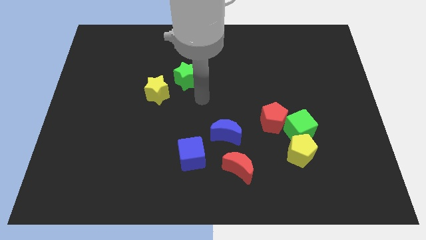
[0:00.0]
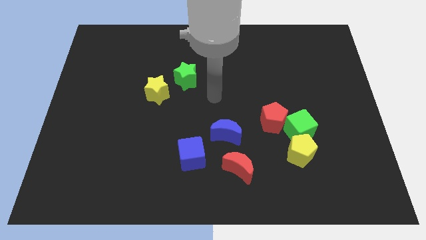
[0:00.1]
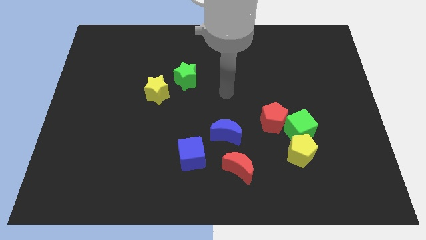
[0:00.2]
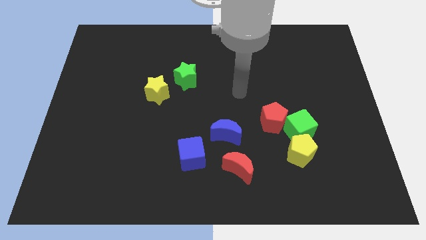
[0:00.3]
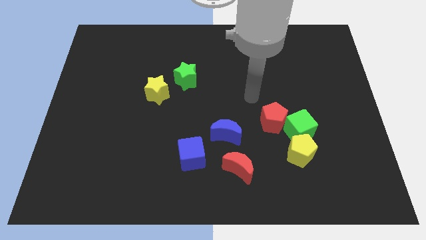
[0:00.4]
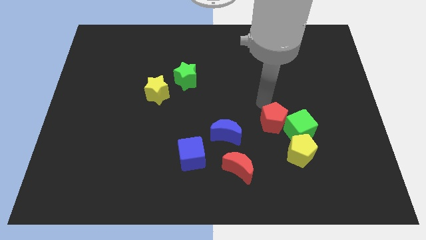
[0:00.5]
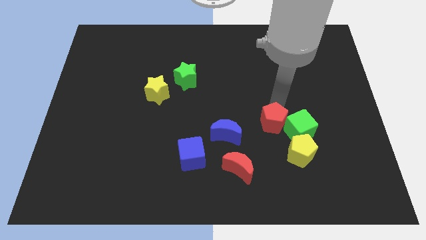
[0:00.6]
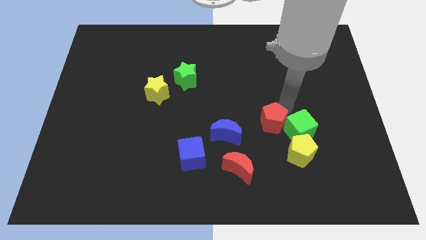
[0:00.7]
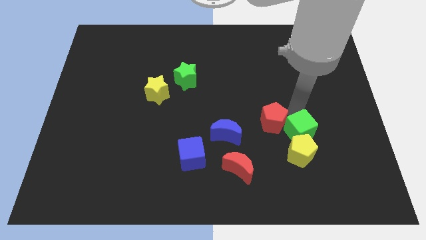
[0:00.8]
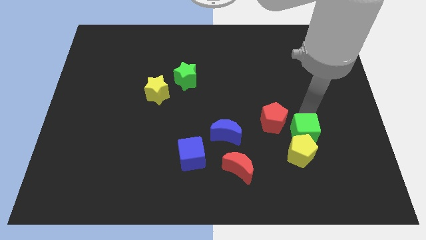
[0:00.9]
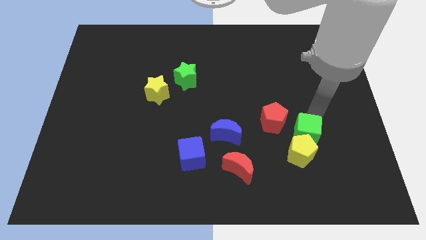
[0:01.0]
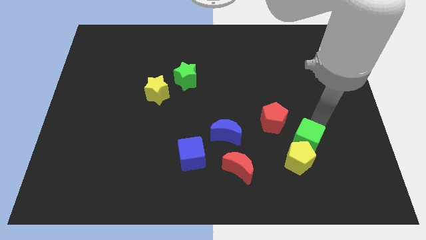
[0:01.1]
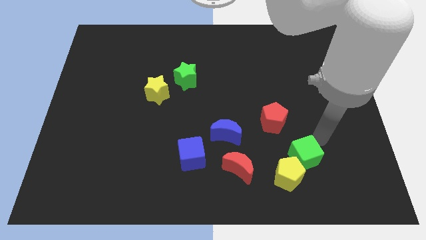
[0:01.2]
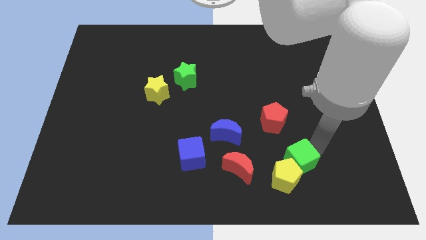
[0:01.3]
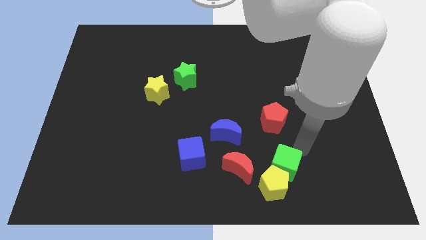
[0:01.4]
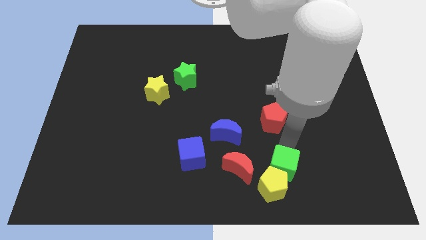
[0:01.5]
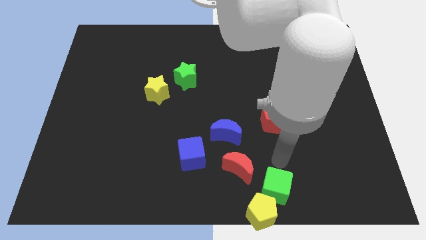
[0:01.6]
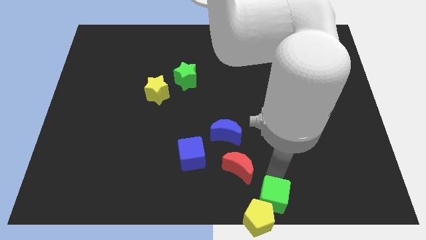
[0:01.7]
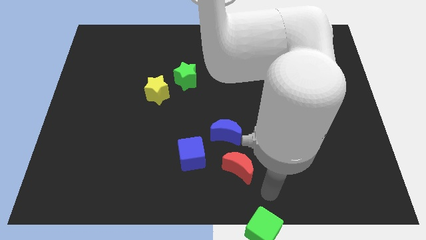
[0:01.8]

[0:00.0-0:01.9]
move the green cube away from the red pentagon and yellow pentagon

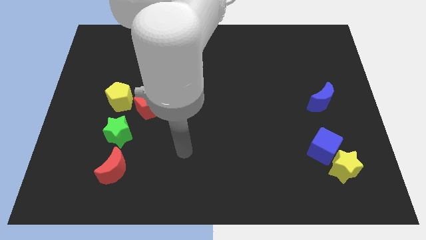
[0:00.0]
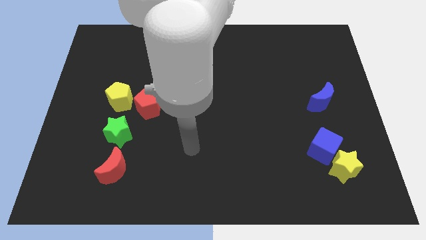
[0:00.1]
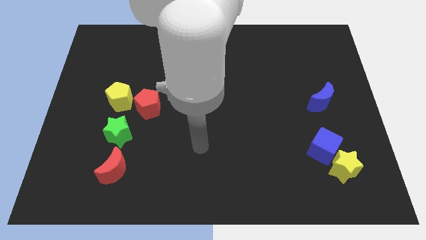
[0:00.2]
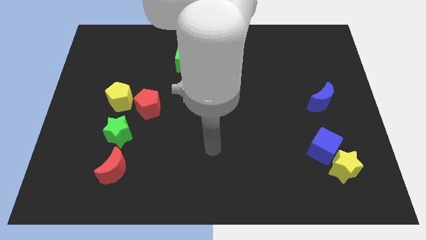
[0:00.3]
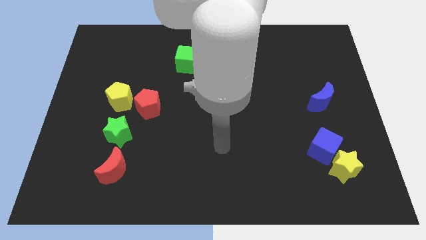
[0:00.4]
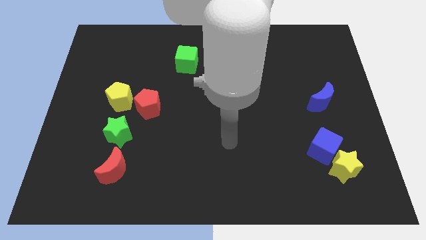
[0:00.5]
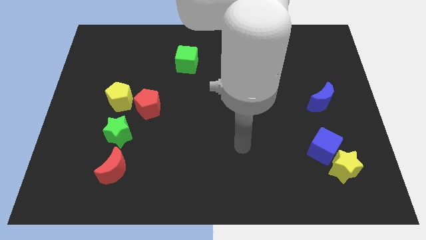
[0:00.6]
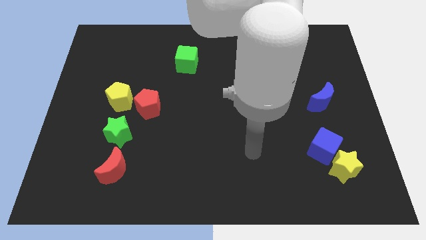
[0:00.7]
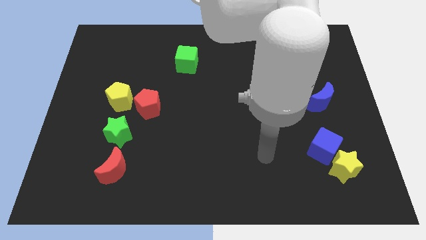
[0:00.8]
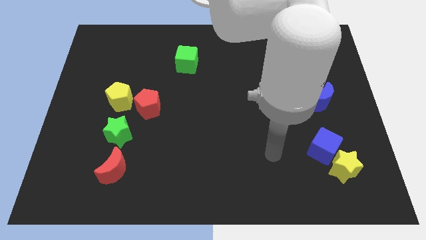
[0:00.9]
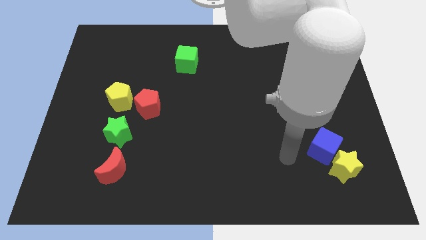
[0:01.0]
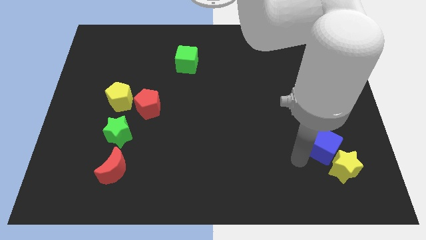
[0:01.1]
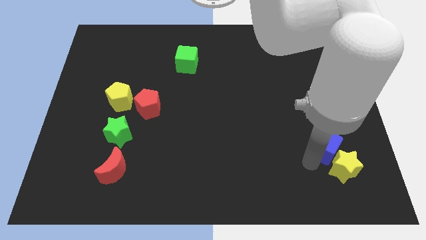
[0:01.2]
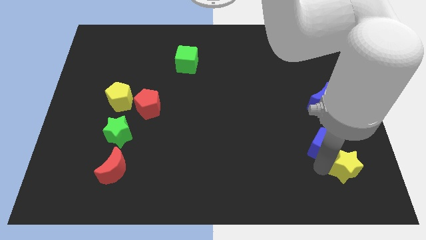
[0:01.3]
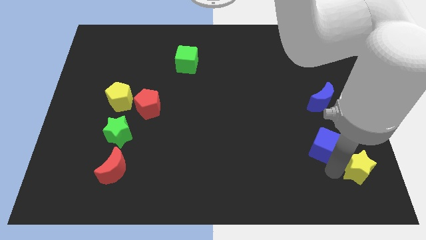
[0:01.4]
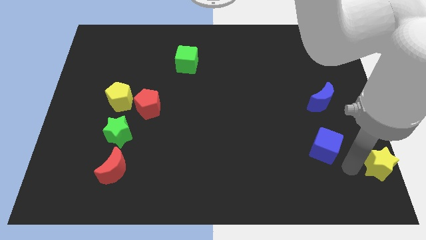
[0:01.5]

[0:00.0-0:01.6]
separate the blue cube from the yellow star

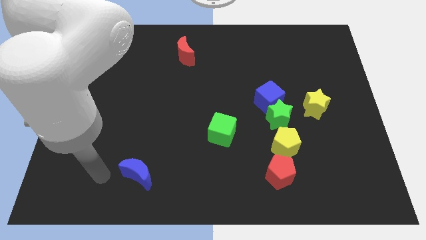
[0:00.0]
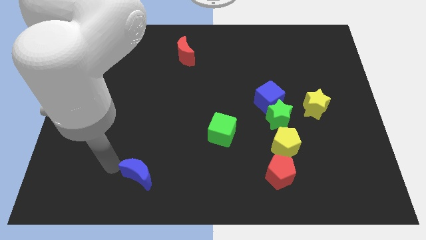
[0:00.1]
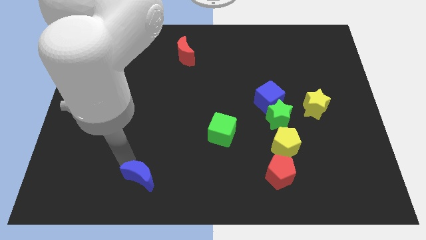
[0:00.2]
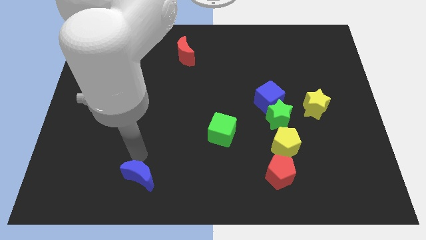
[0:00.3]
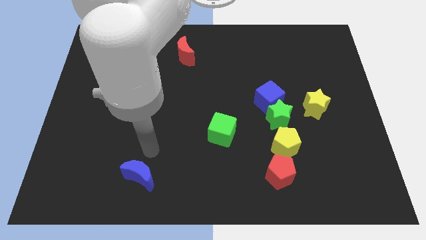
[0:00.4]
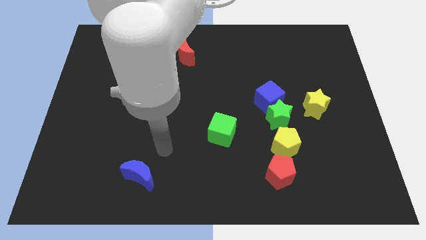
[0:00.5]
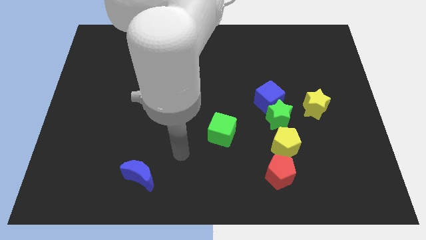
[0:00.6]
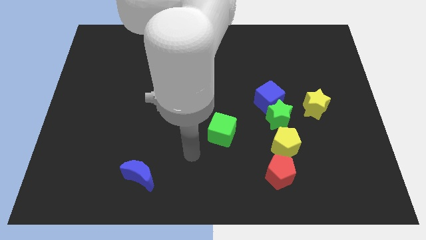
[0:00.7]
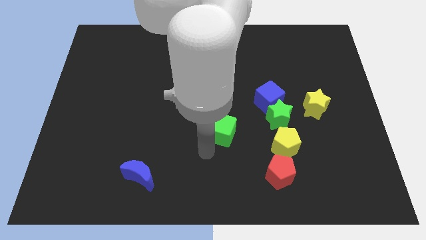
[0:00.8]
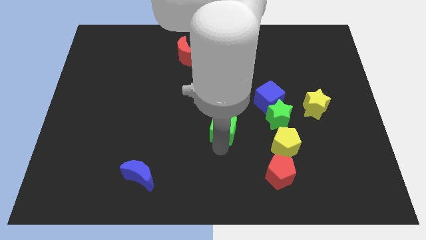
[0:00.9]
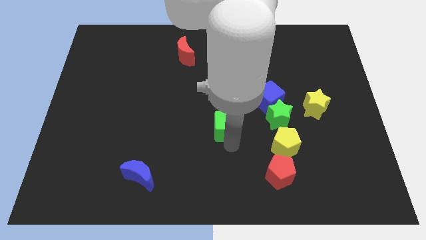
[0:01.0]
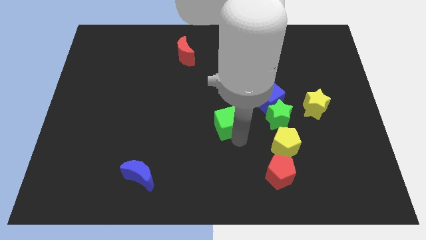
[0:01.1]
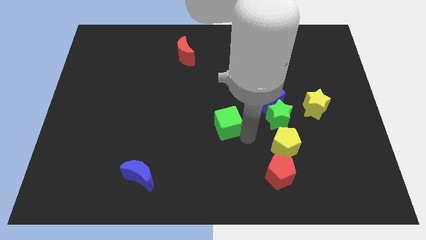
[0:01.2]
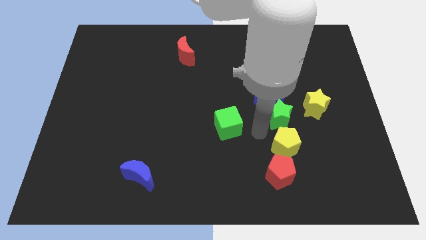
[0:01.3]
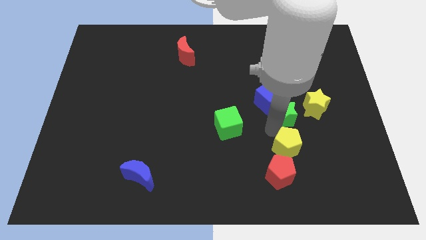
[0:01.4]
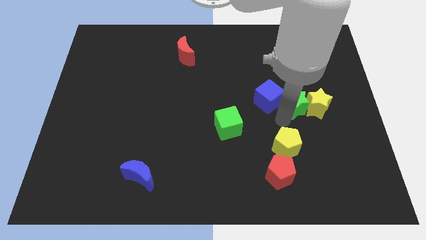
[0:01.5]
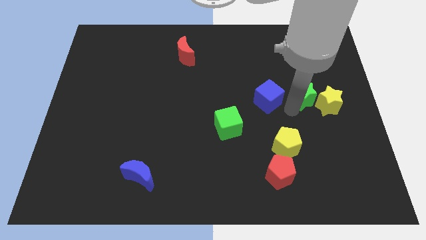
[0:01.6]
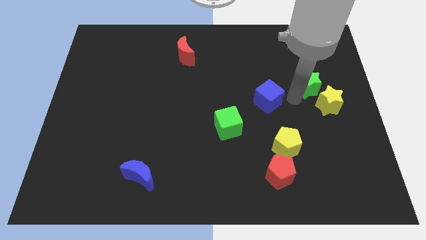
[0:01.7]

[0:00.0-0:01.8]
separate the blue cube from the green star

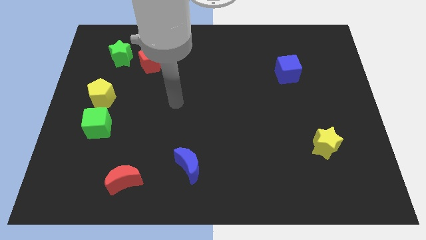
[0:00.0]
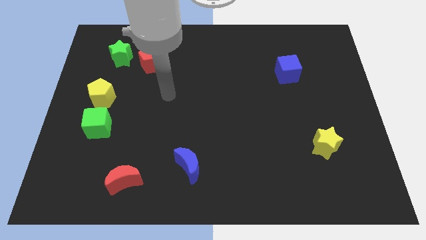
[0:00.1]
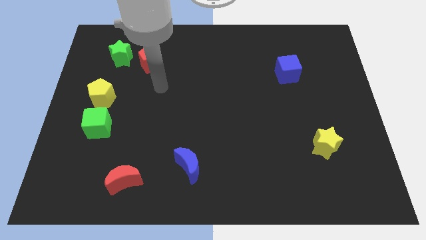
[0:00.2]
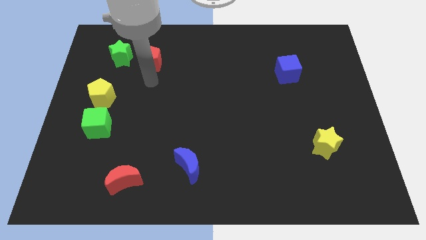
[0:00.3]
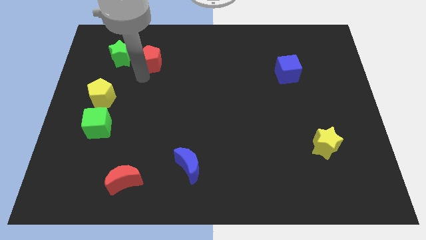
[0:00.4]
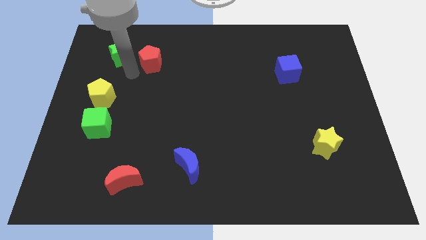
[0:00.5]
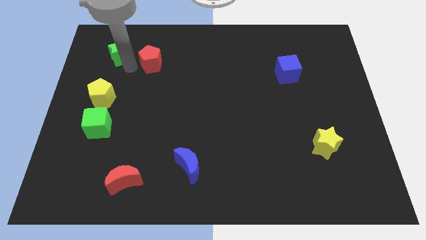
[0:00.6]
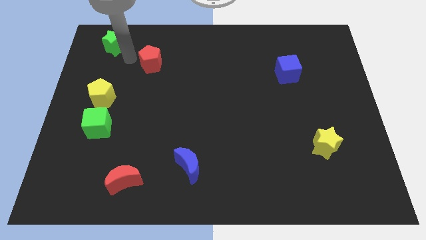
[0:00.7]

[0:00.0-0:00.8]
pull the red pentagon apart from the green star

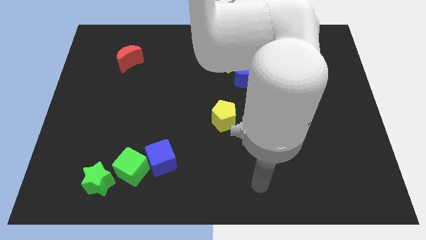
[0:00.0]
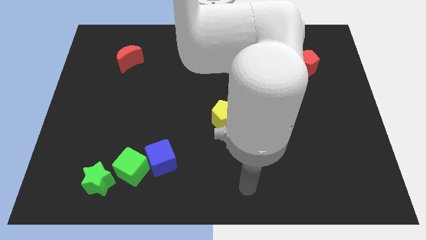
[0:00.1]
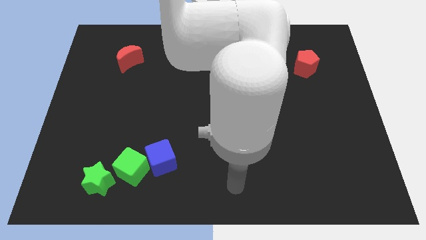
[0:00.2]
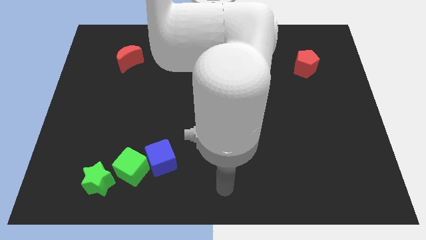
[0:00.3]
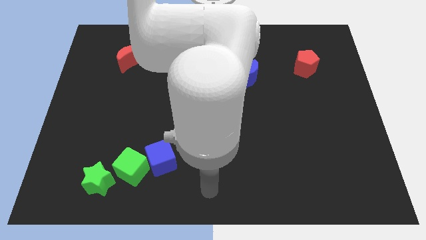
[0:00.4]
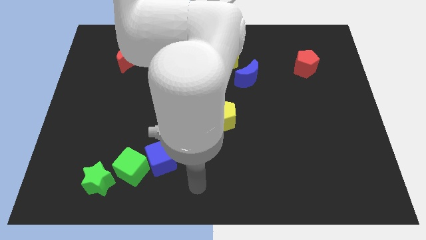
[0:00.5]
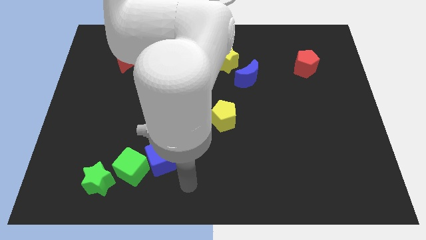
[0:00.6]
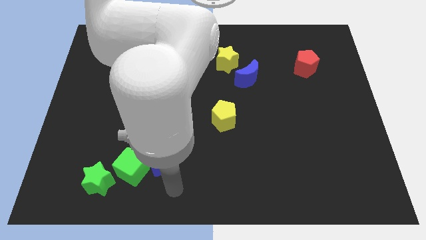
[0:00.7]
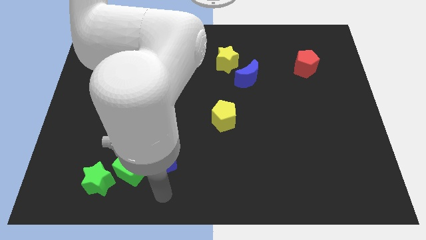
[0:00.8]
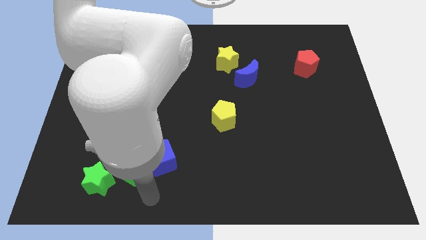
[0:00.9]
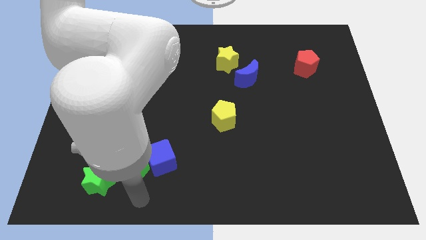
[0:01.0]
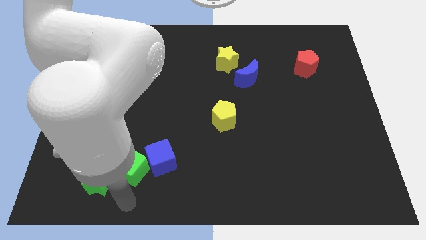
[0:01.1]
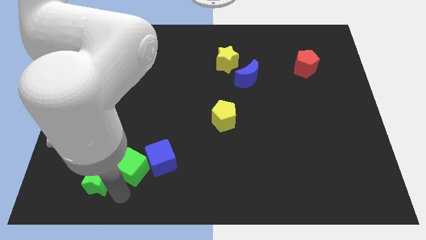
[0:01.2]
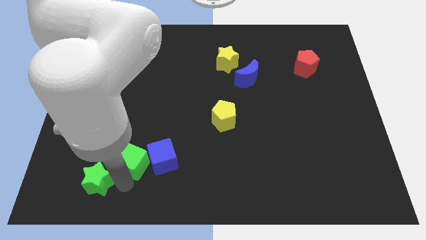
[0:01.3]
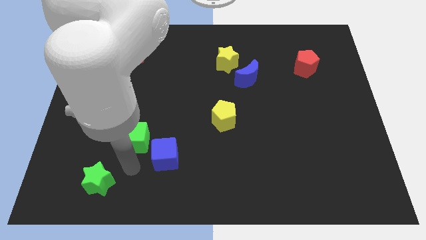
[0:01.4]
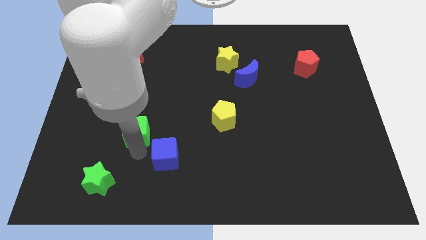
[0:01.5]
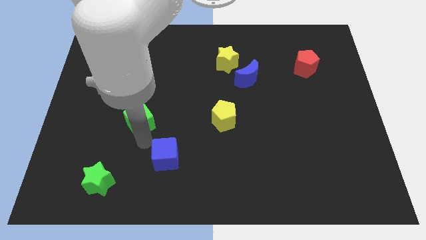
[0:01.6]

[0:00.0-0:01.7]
move the blue cube away from the green cube

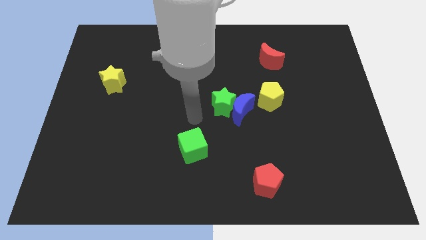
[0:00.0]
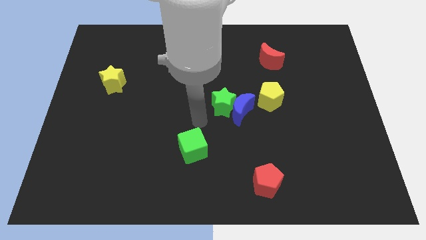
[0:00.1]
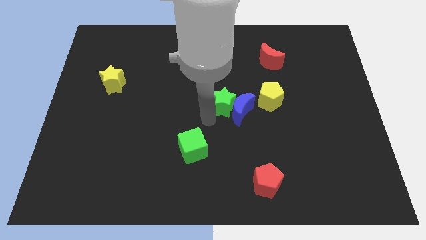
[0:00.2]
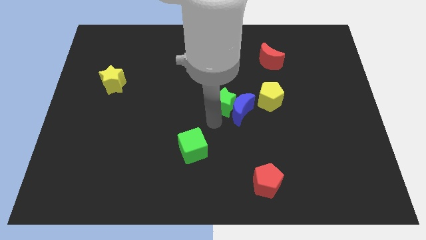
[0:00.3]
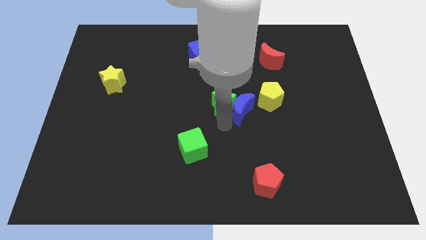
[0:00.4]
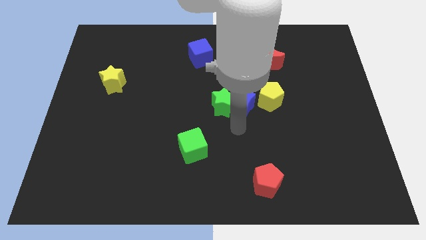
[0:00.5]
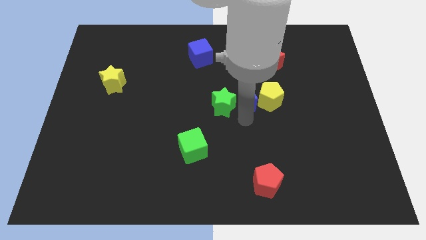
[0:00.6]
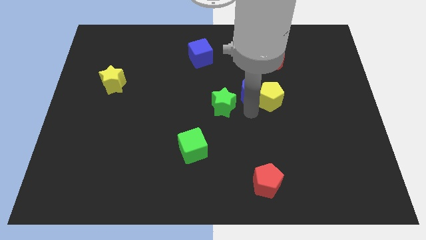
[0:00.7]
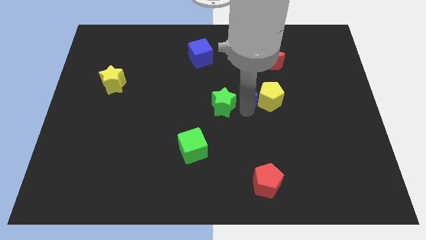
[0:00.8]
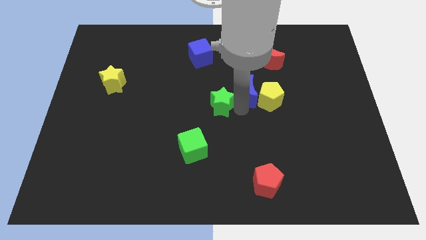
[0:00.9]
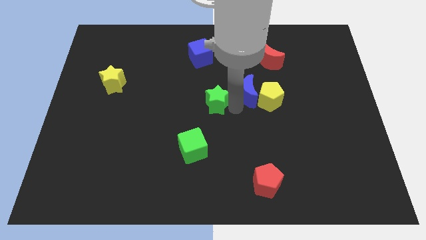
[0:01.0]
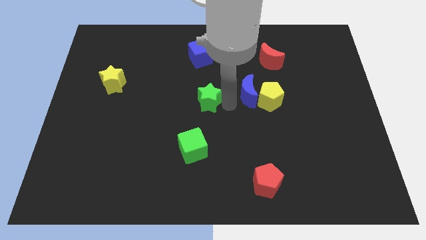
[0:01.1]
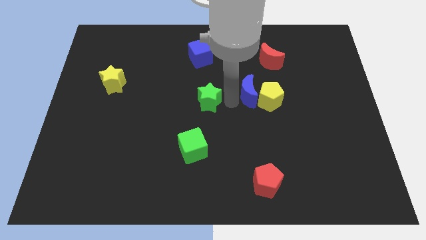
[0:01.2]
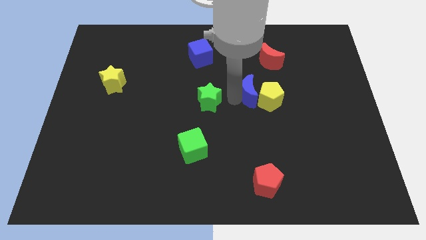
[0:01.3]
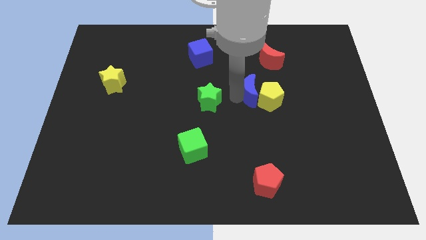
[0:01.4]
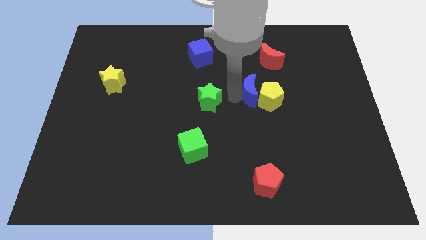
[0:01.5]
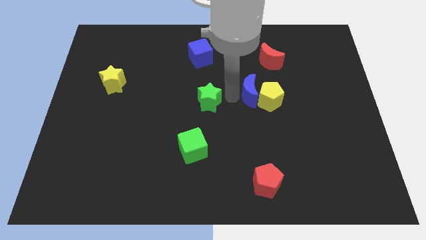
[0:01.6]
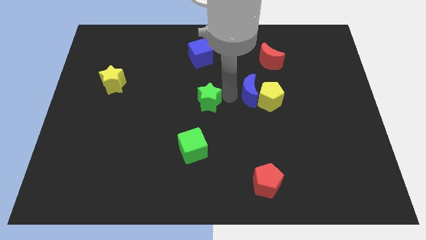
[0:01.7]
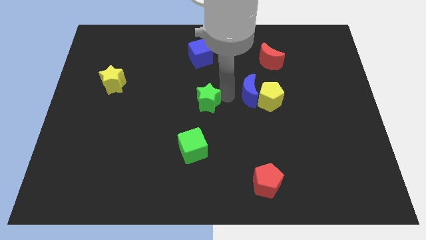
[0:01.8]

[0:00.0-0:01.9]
separate the green star from the blue moon
